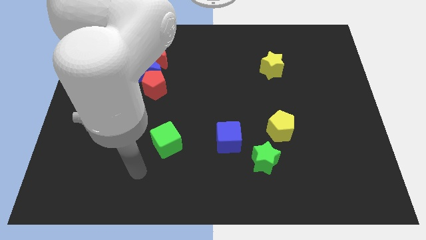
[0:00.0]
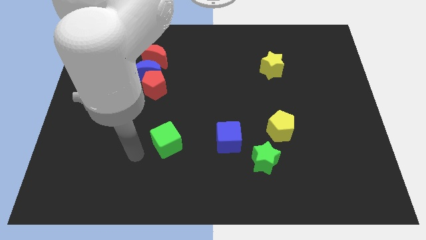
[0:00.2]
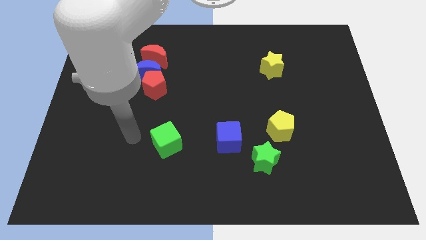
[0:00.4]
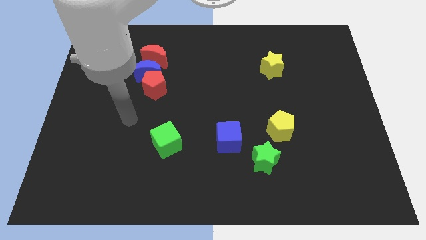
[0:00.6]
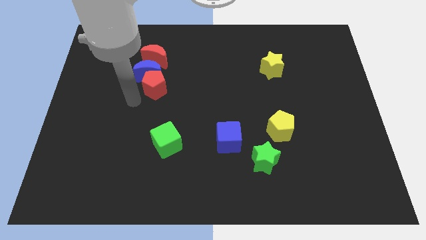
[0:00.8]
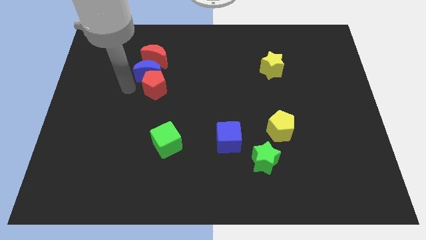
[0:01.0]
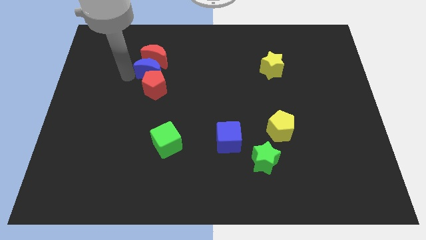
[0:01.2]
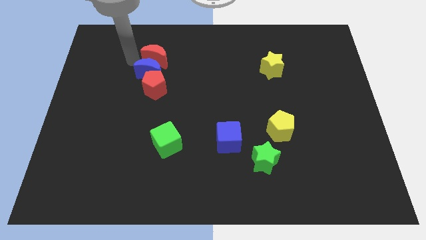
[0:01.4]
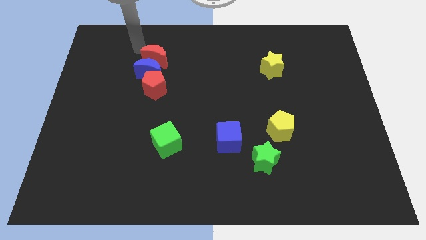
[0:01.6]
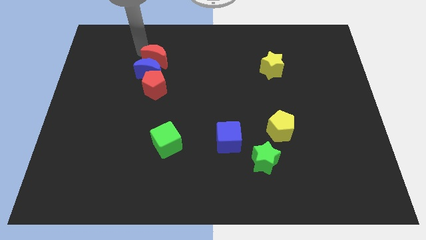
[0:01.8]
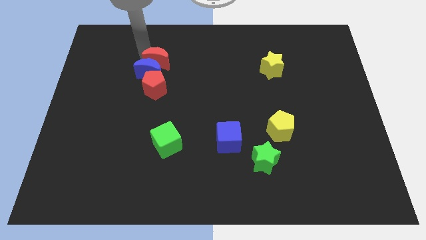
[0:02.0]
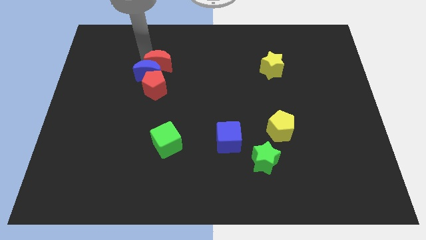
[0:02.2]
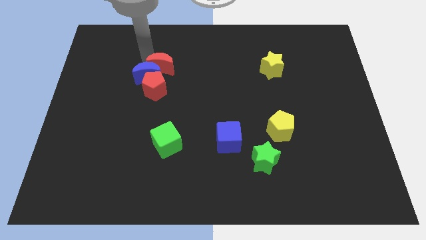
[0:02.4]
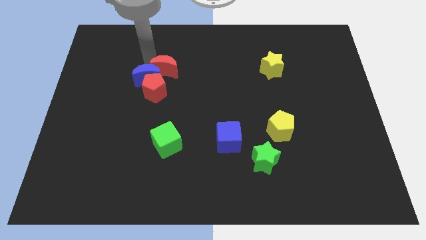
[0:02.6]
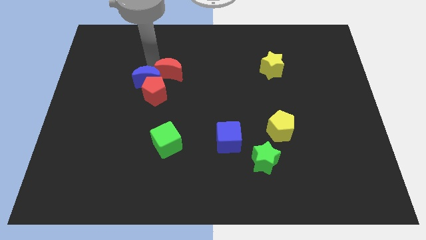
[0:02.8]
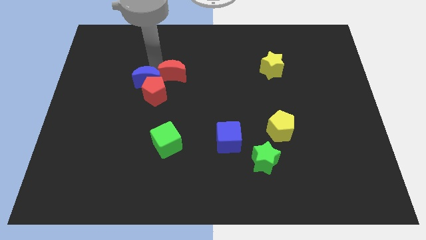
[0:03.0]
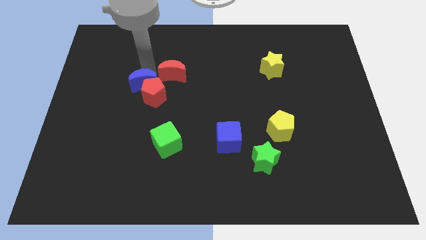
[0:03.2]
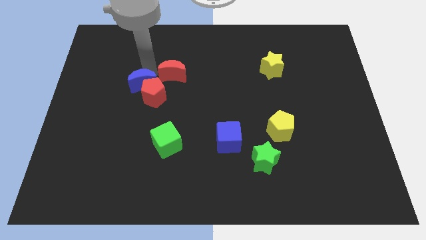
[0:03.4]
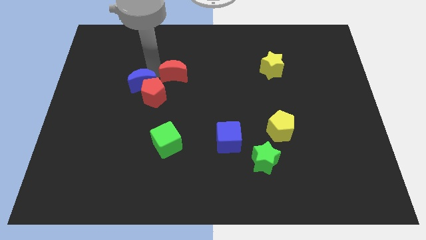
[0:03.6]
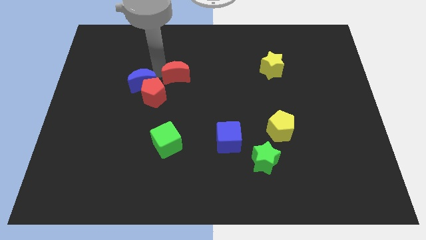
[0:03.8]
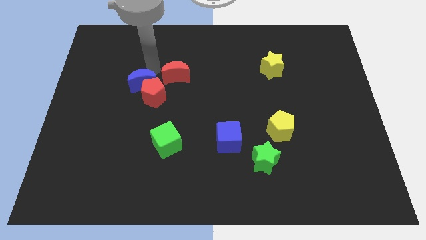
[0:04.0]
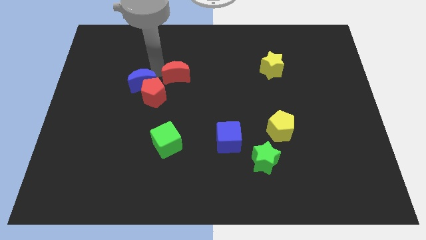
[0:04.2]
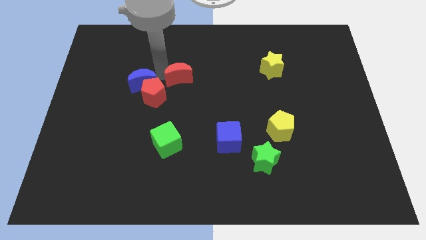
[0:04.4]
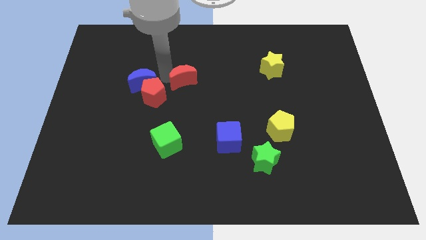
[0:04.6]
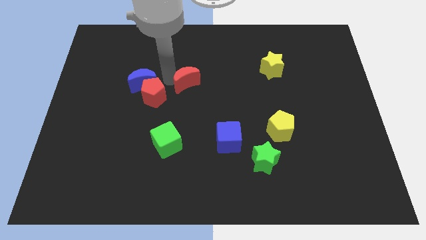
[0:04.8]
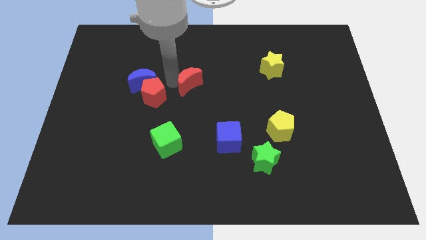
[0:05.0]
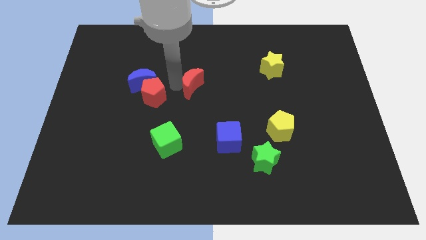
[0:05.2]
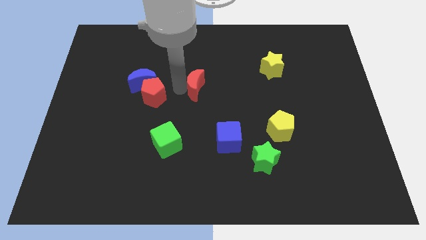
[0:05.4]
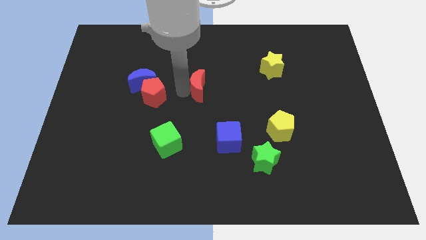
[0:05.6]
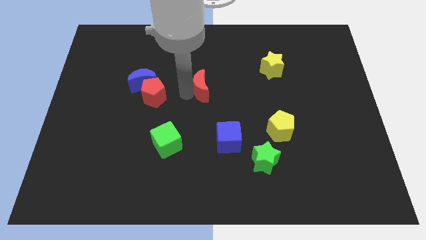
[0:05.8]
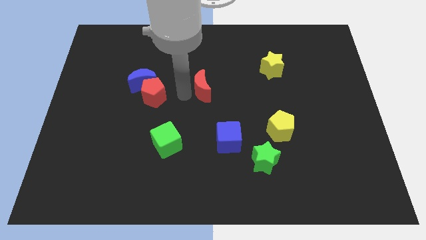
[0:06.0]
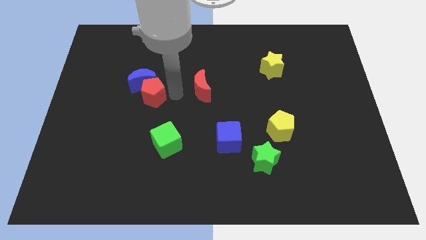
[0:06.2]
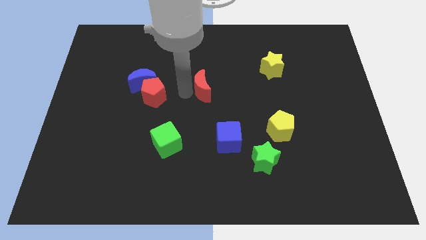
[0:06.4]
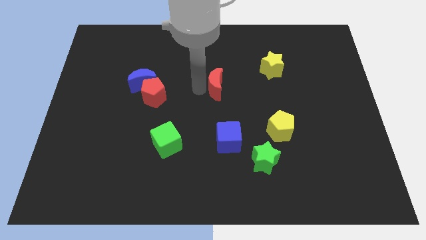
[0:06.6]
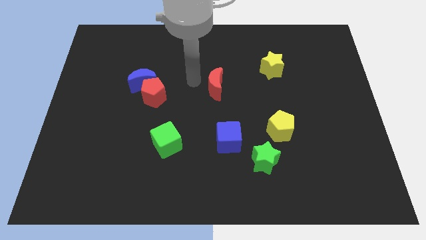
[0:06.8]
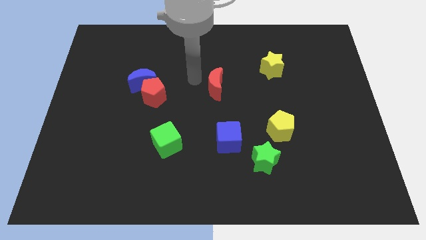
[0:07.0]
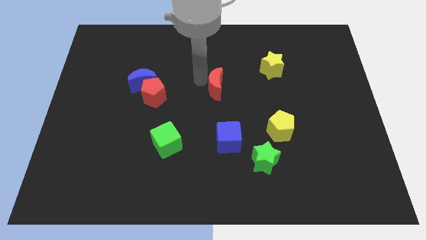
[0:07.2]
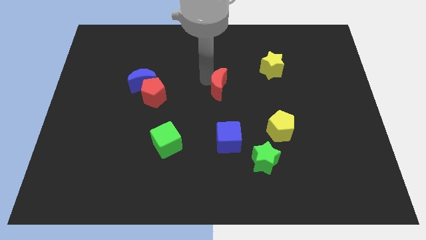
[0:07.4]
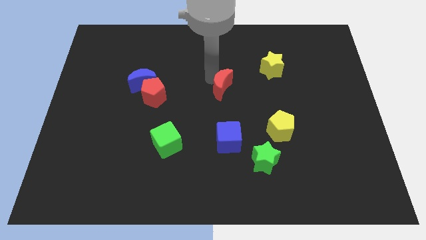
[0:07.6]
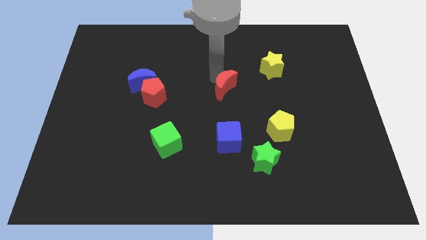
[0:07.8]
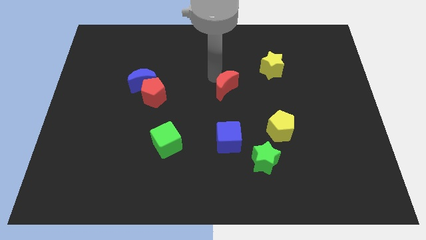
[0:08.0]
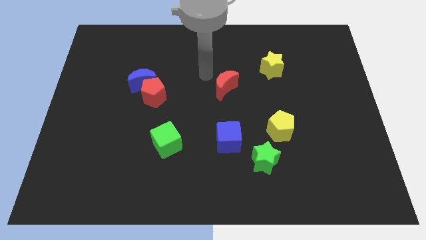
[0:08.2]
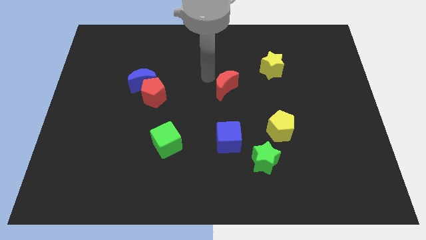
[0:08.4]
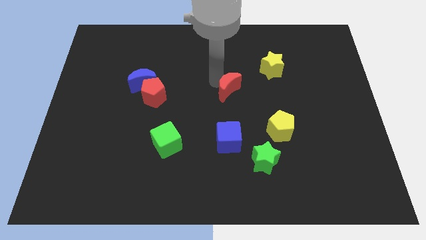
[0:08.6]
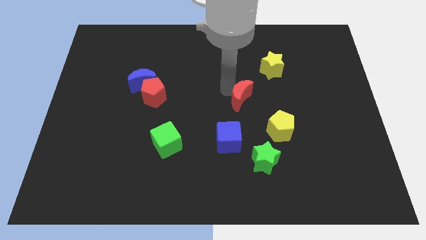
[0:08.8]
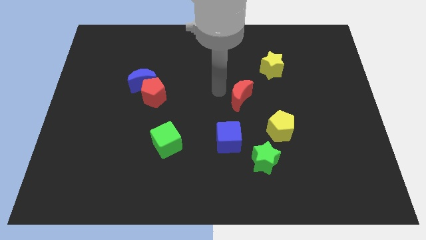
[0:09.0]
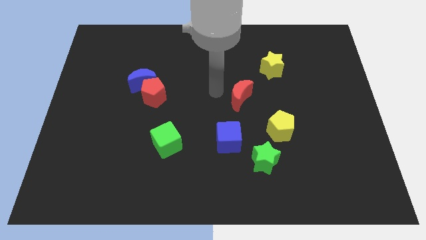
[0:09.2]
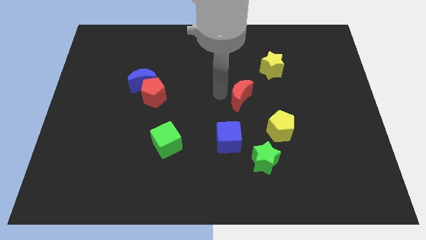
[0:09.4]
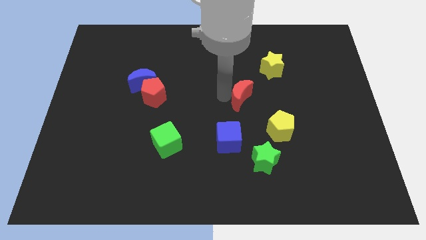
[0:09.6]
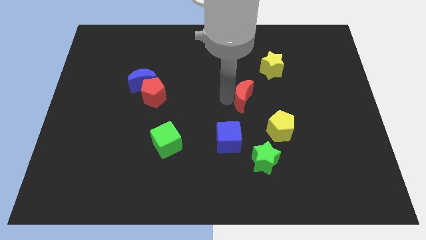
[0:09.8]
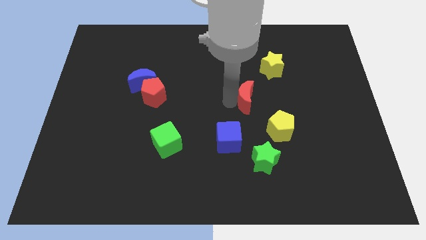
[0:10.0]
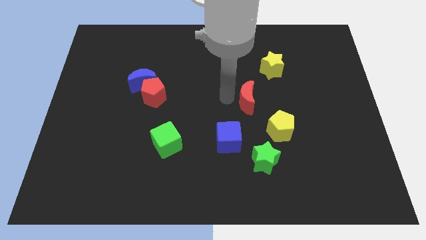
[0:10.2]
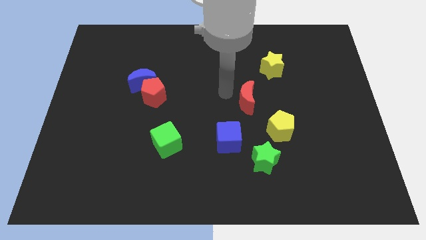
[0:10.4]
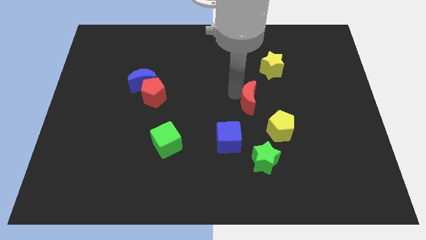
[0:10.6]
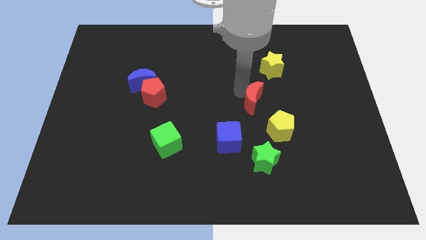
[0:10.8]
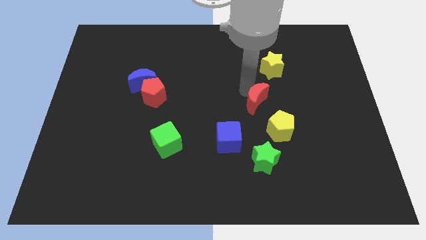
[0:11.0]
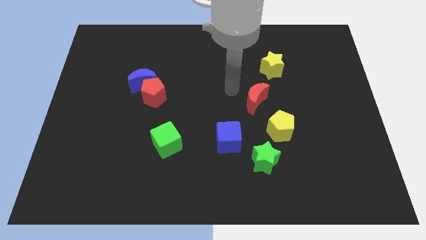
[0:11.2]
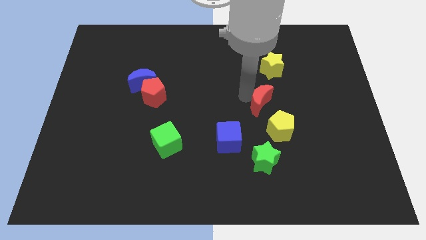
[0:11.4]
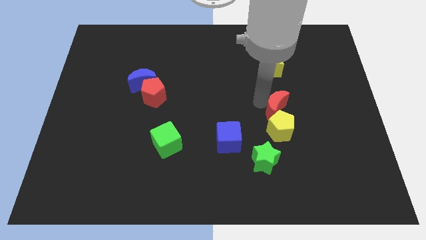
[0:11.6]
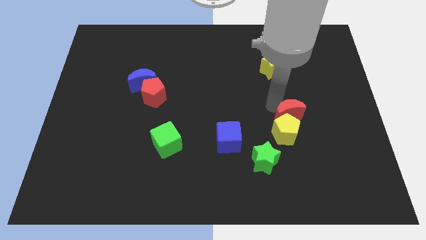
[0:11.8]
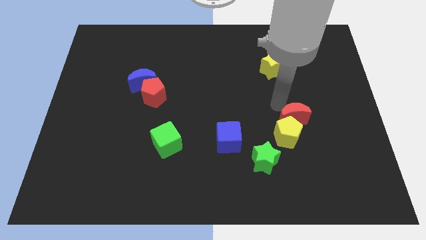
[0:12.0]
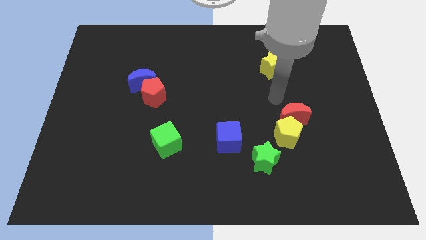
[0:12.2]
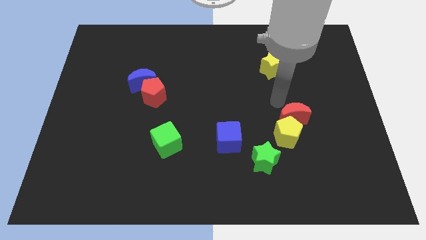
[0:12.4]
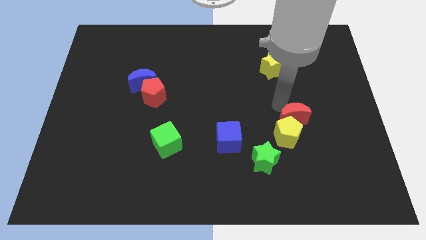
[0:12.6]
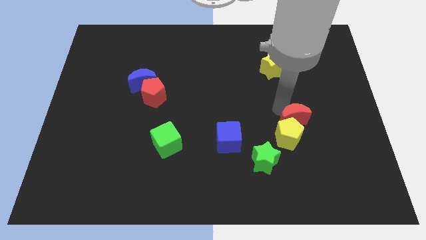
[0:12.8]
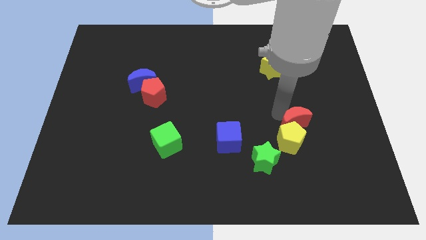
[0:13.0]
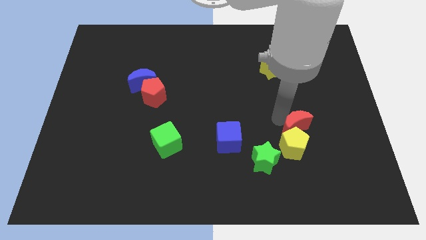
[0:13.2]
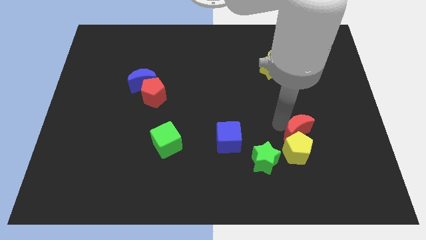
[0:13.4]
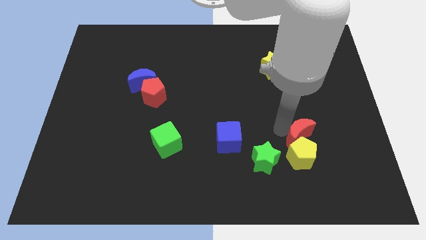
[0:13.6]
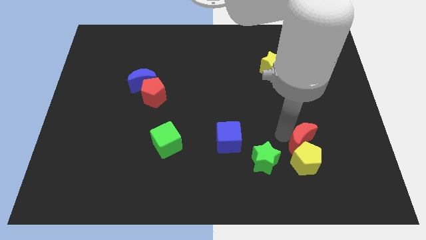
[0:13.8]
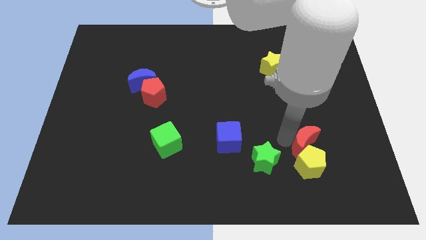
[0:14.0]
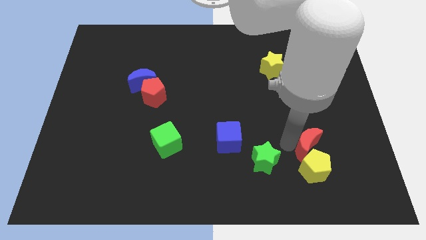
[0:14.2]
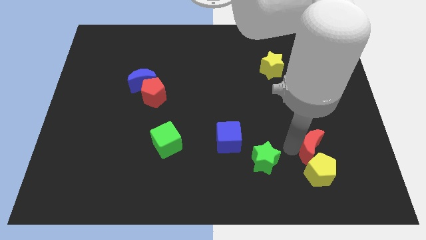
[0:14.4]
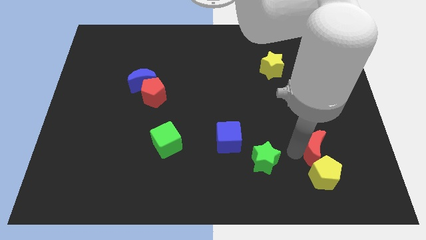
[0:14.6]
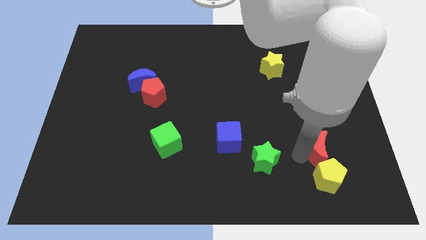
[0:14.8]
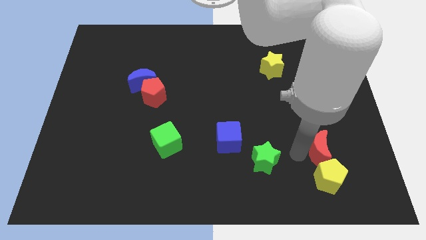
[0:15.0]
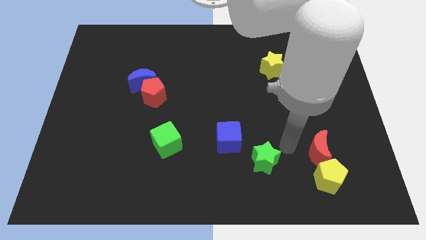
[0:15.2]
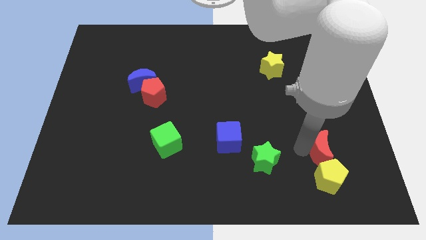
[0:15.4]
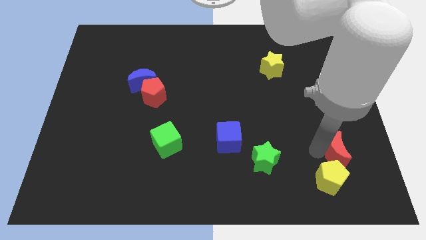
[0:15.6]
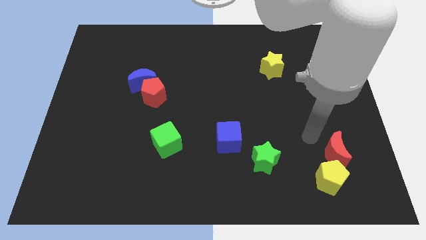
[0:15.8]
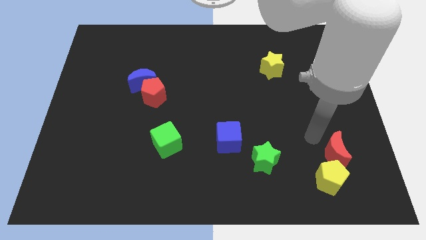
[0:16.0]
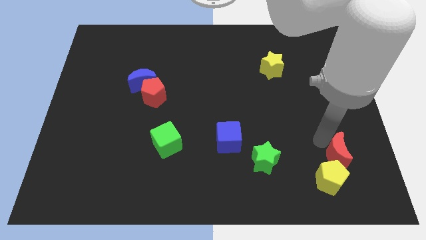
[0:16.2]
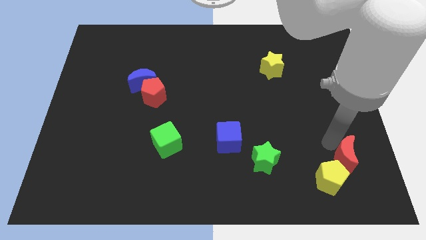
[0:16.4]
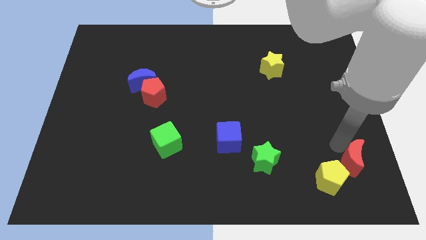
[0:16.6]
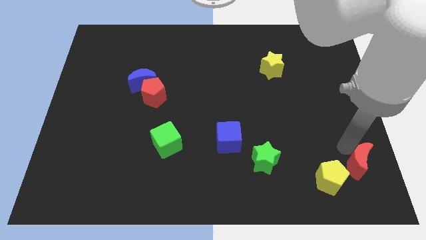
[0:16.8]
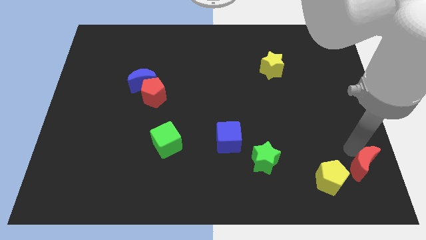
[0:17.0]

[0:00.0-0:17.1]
put the red moon to the lower right corner
